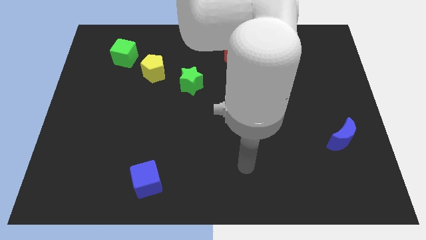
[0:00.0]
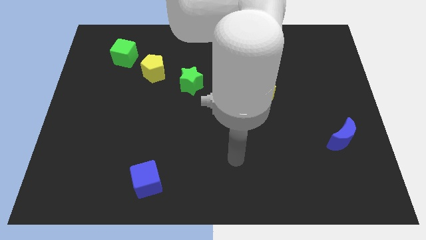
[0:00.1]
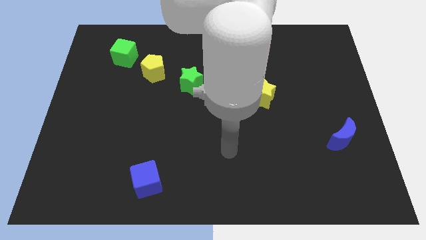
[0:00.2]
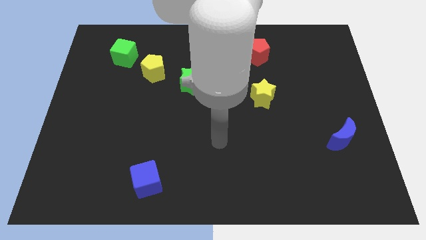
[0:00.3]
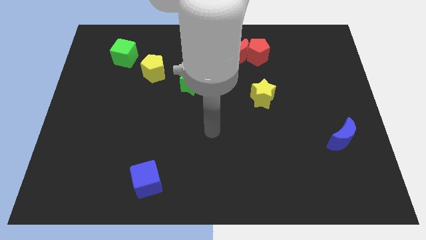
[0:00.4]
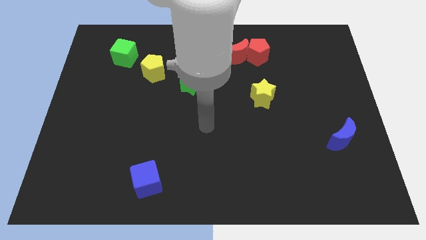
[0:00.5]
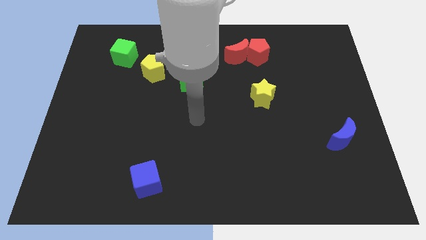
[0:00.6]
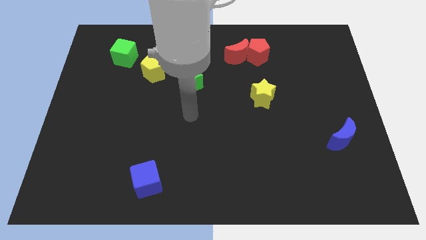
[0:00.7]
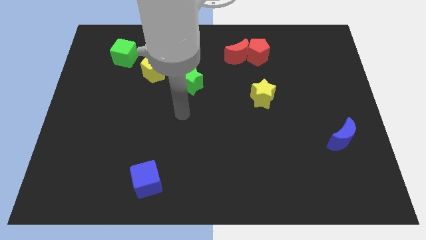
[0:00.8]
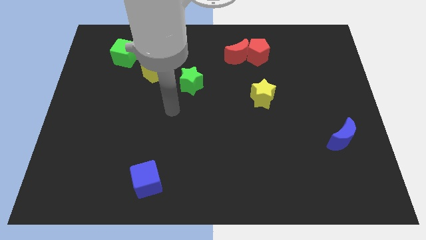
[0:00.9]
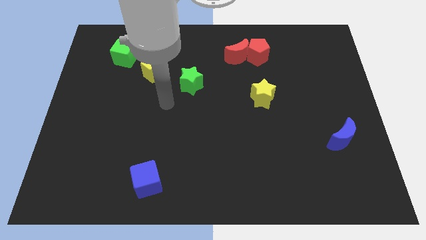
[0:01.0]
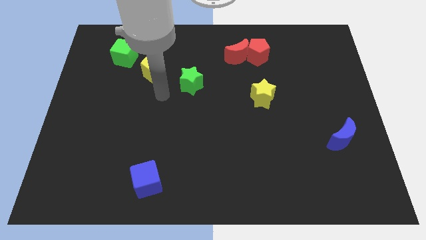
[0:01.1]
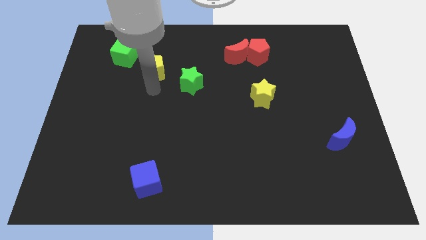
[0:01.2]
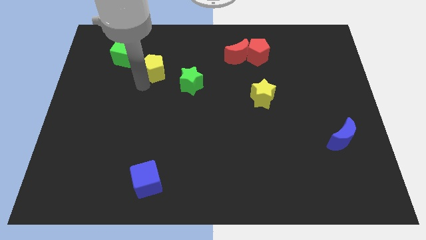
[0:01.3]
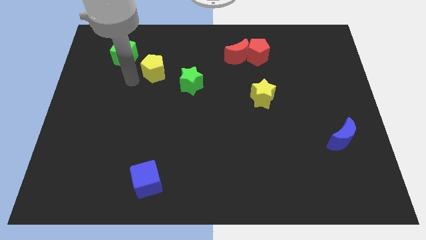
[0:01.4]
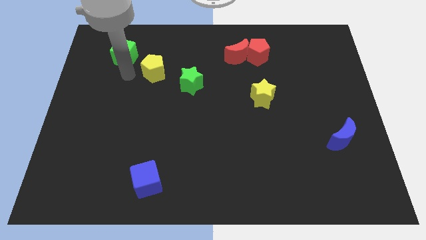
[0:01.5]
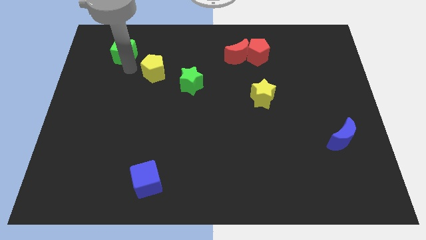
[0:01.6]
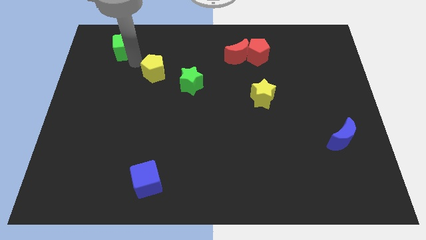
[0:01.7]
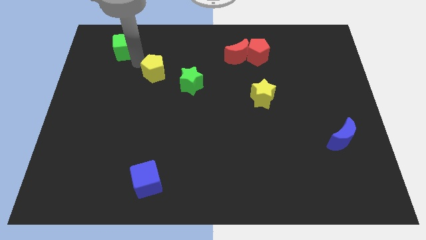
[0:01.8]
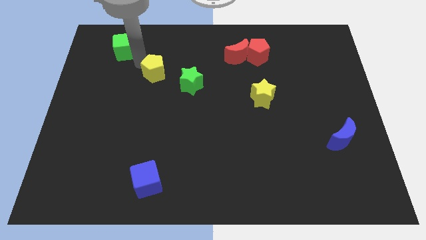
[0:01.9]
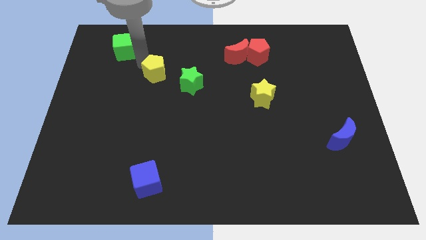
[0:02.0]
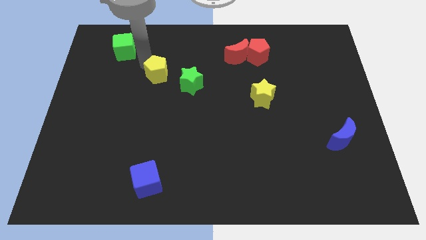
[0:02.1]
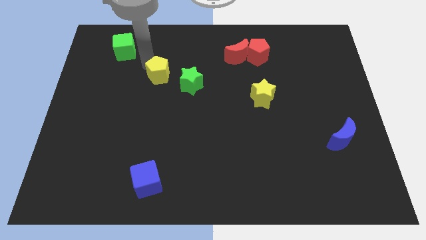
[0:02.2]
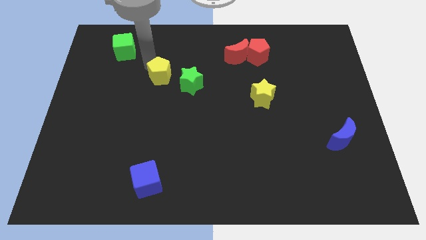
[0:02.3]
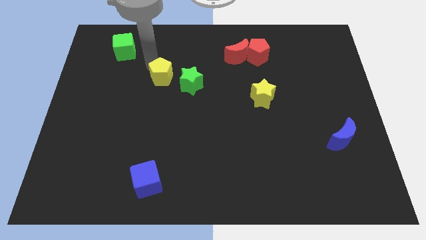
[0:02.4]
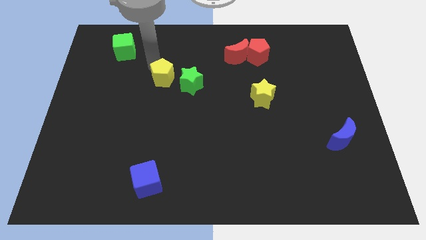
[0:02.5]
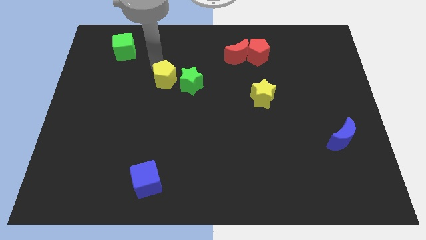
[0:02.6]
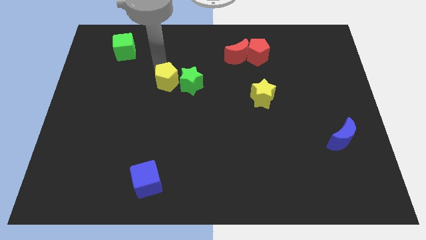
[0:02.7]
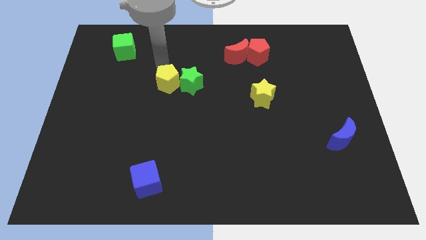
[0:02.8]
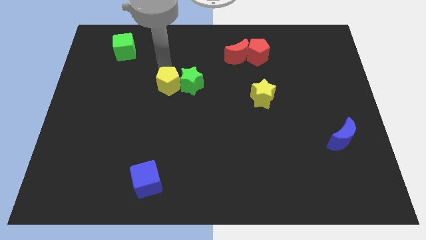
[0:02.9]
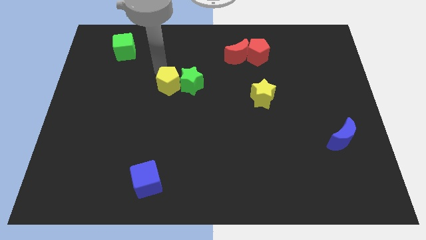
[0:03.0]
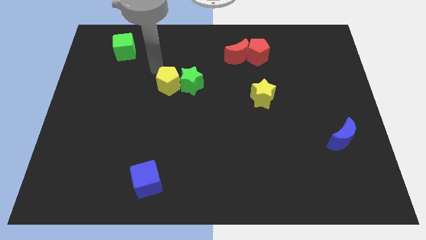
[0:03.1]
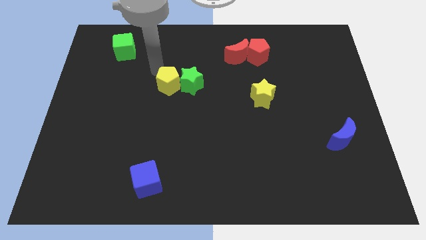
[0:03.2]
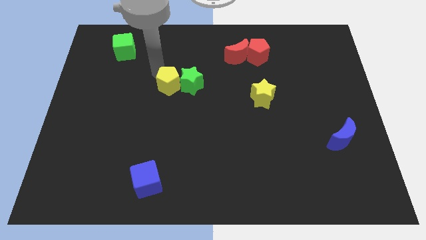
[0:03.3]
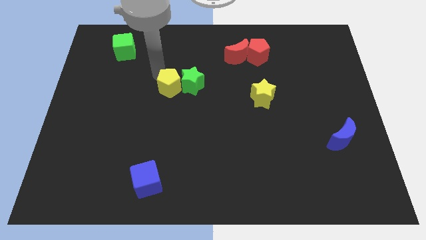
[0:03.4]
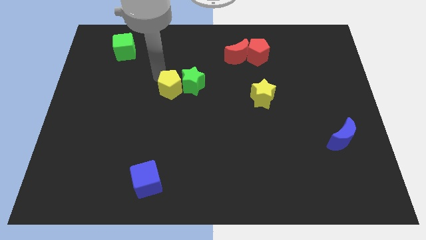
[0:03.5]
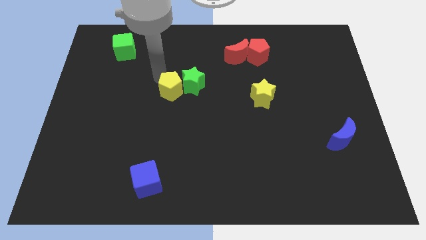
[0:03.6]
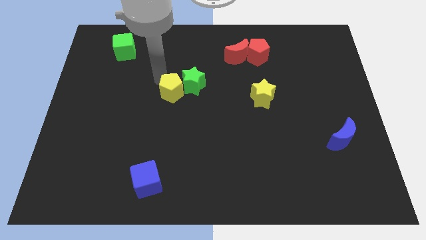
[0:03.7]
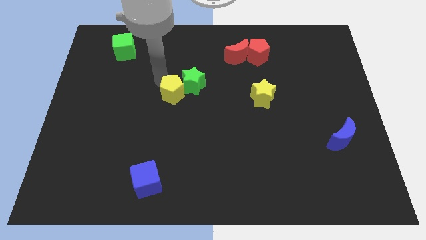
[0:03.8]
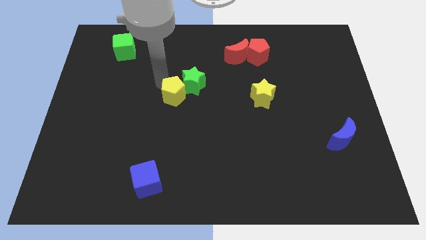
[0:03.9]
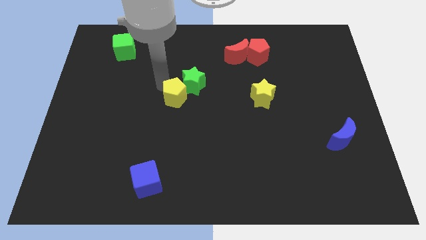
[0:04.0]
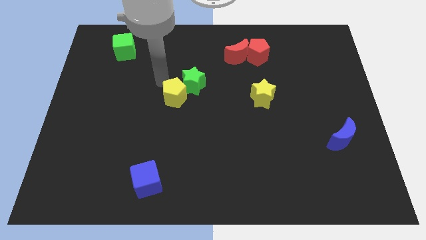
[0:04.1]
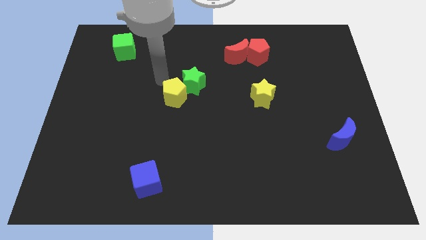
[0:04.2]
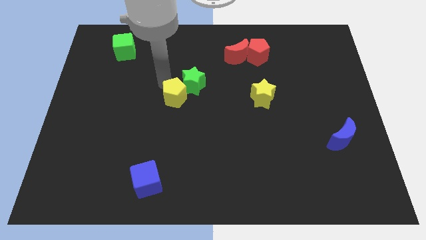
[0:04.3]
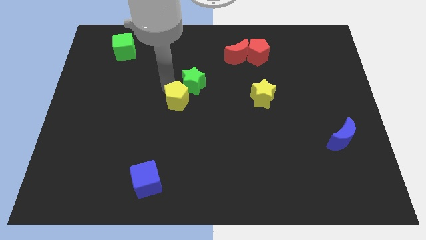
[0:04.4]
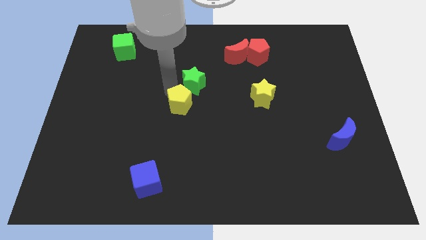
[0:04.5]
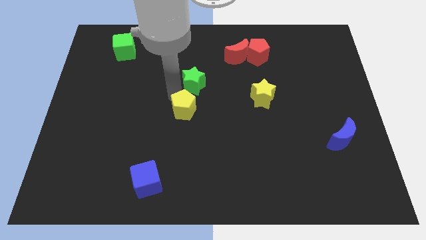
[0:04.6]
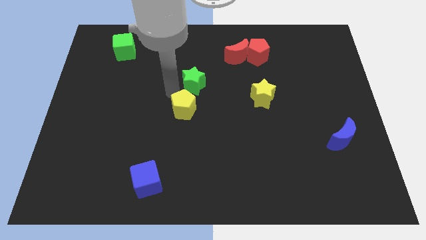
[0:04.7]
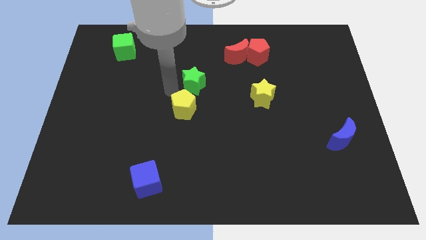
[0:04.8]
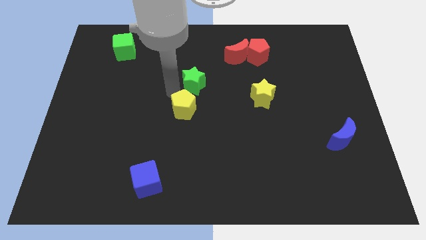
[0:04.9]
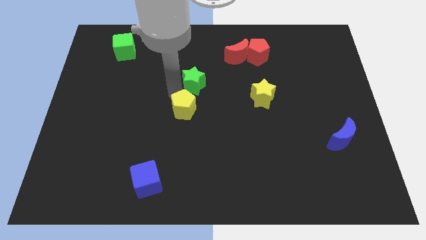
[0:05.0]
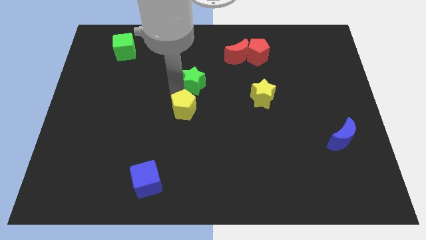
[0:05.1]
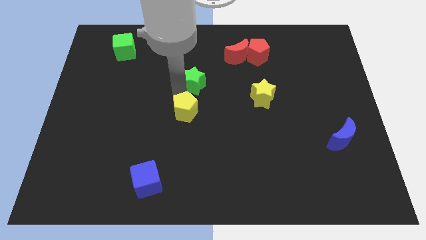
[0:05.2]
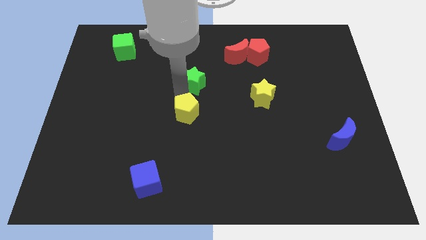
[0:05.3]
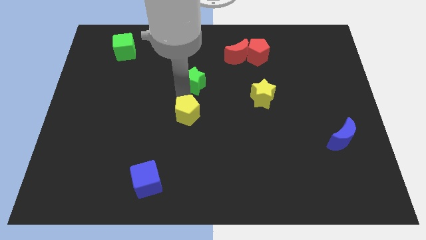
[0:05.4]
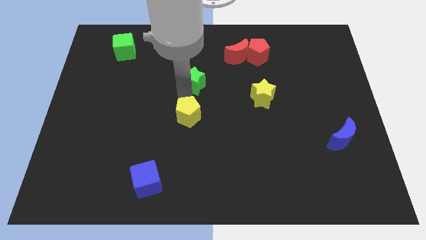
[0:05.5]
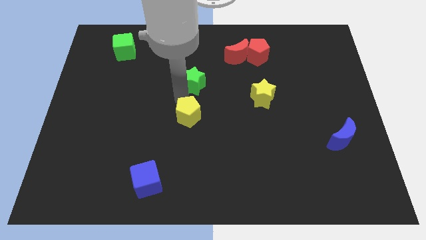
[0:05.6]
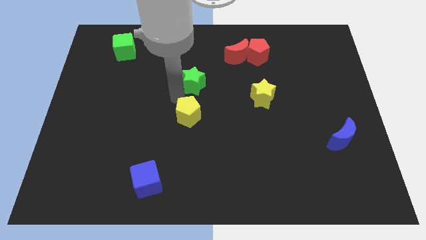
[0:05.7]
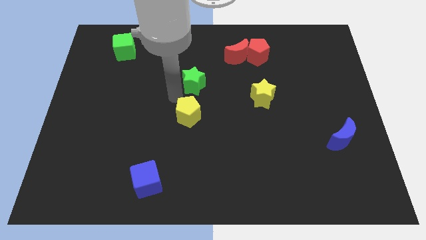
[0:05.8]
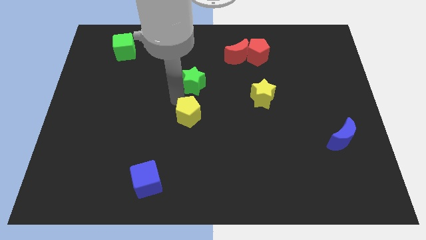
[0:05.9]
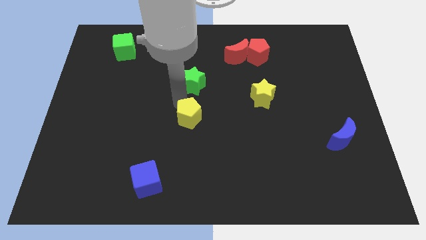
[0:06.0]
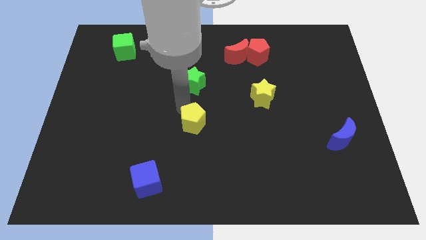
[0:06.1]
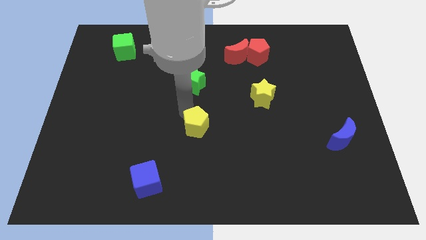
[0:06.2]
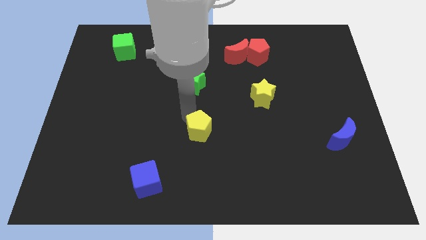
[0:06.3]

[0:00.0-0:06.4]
move the yellow pentagon downwards and then right

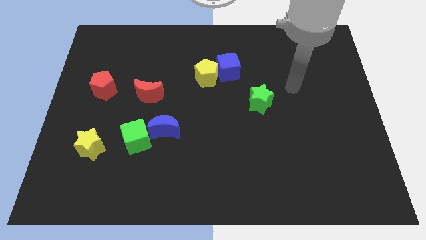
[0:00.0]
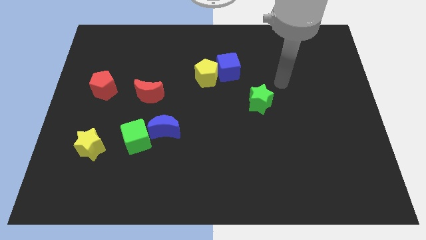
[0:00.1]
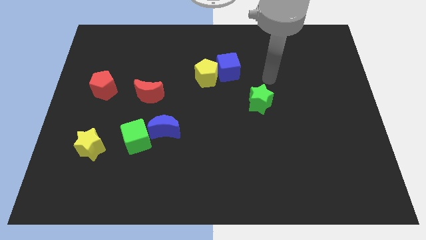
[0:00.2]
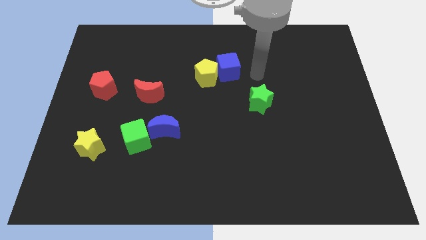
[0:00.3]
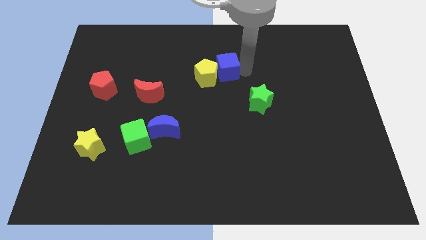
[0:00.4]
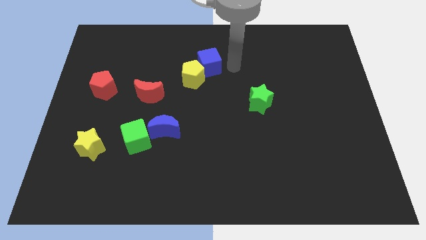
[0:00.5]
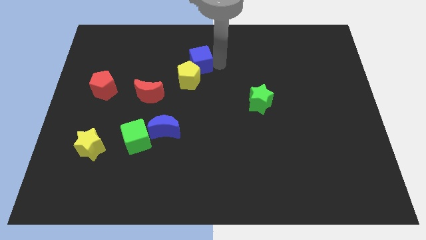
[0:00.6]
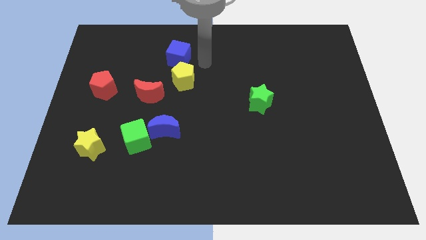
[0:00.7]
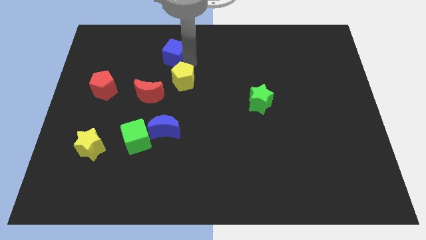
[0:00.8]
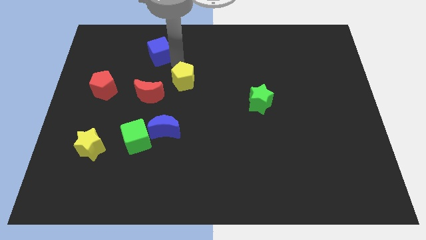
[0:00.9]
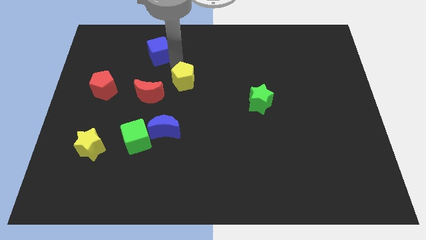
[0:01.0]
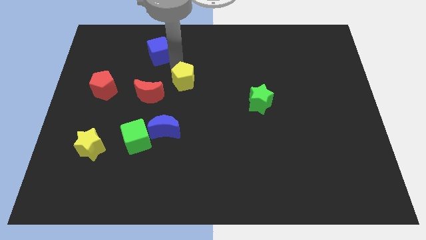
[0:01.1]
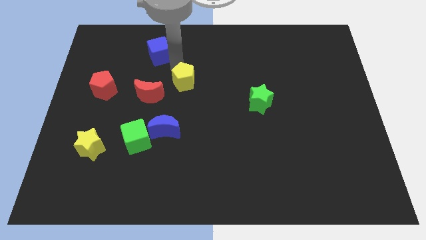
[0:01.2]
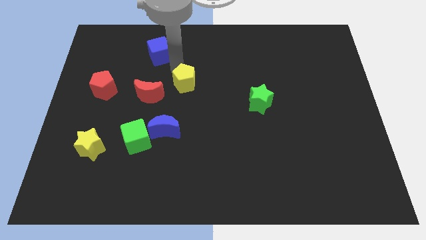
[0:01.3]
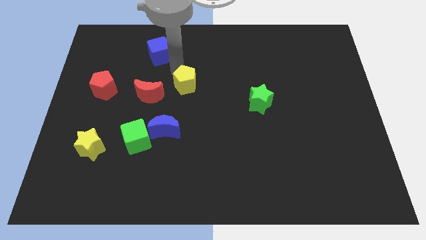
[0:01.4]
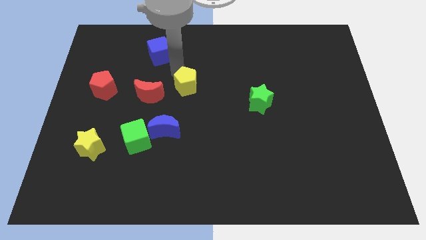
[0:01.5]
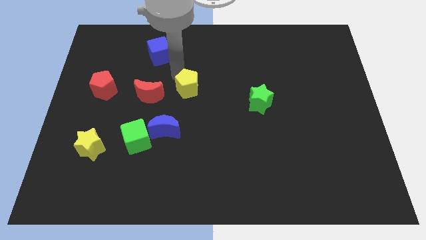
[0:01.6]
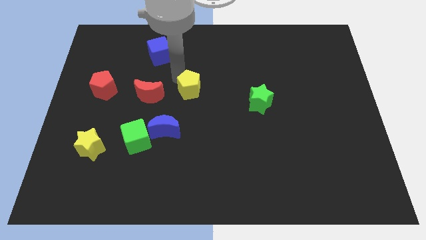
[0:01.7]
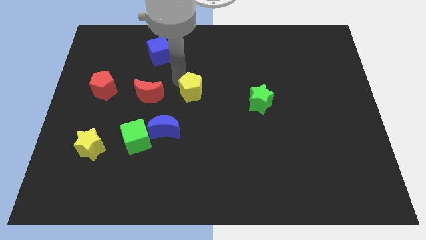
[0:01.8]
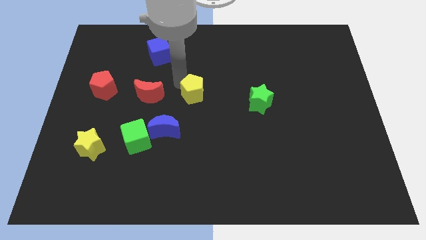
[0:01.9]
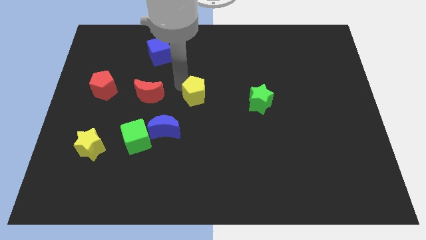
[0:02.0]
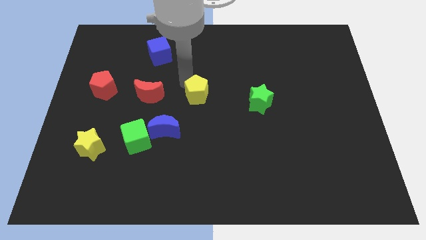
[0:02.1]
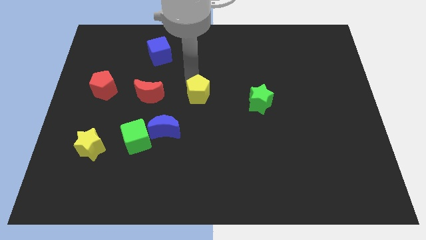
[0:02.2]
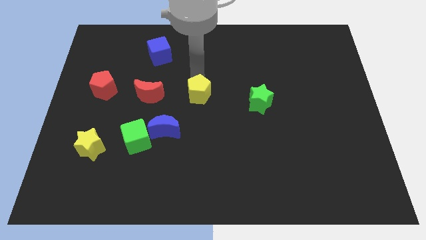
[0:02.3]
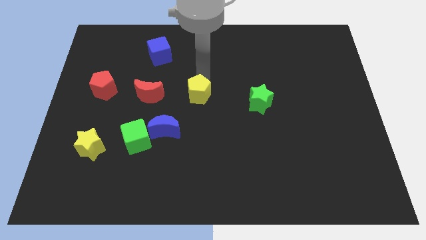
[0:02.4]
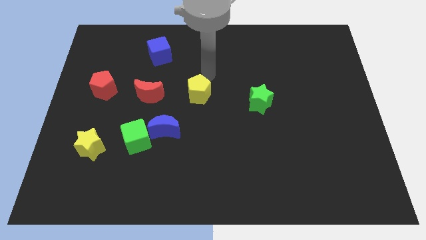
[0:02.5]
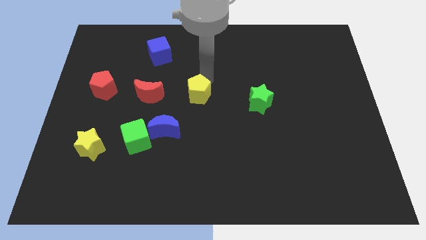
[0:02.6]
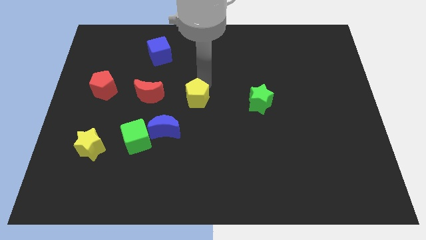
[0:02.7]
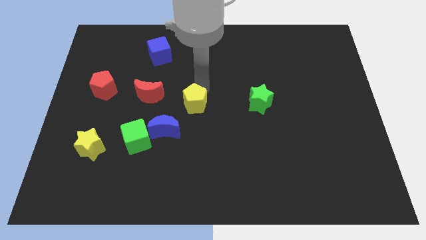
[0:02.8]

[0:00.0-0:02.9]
slide the yellow pentagon down a bit
